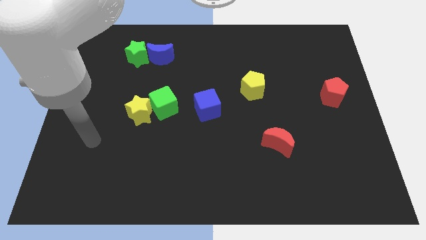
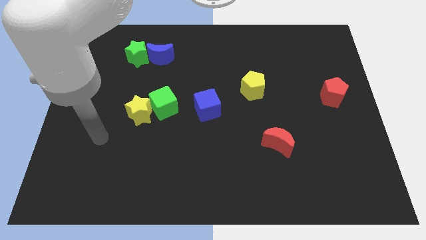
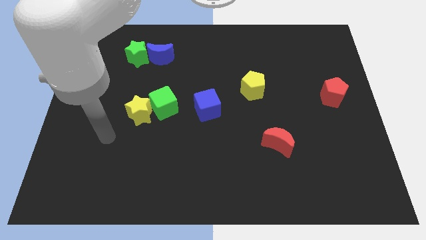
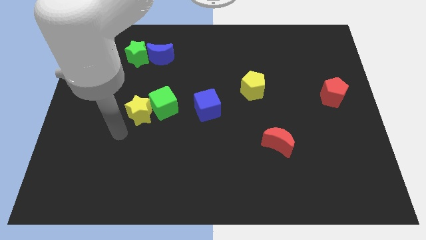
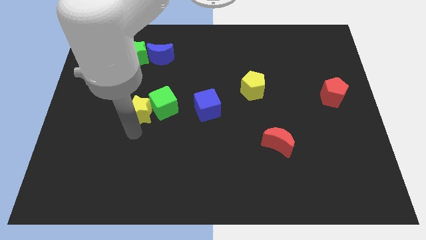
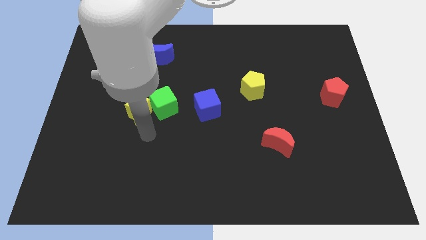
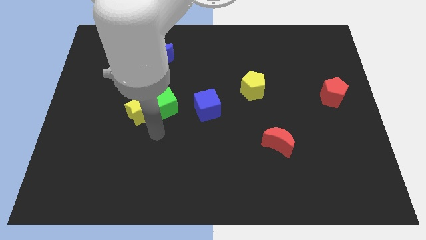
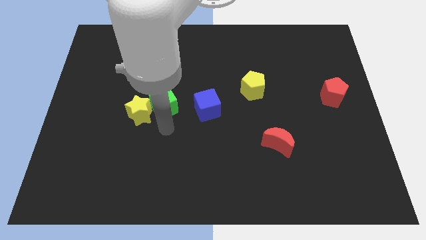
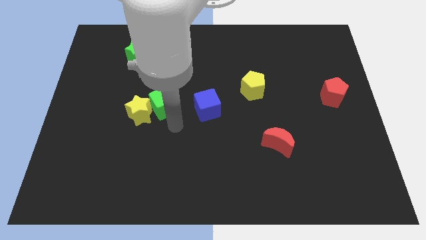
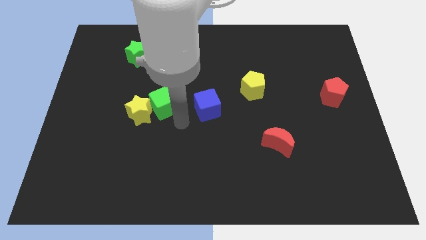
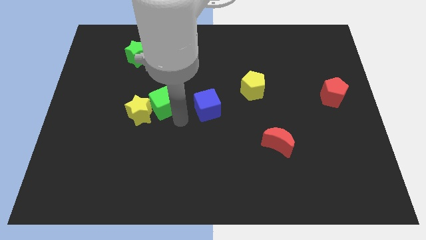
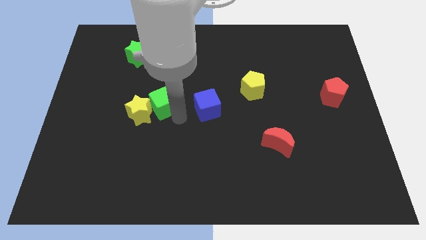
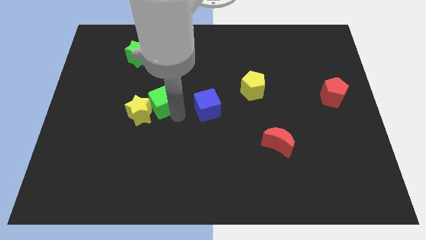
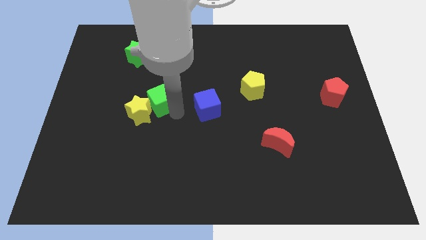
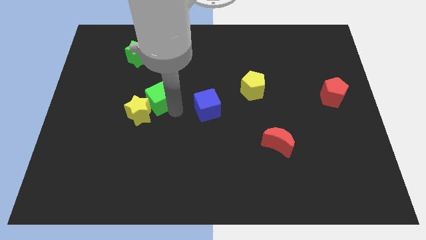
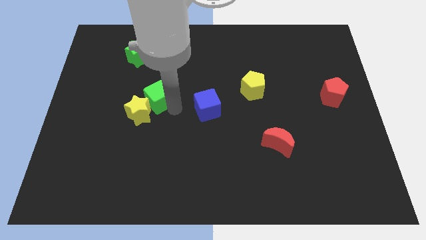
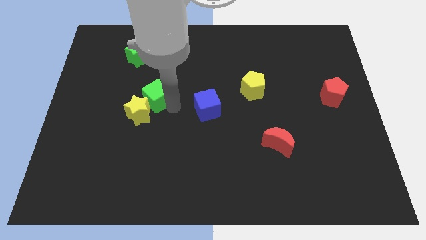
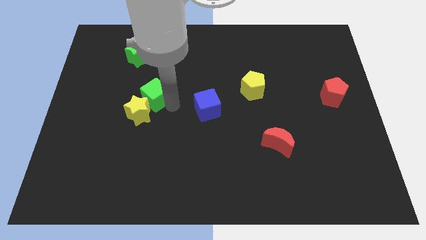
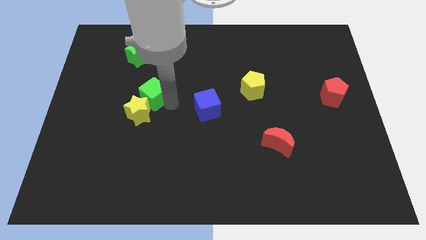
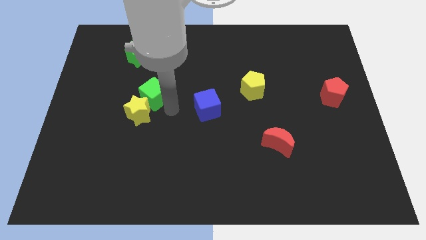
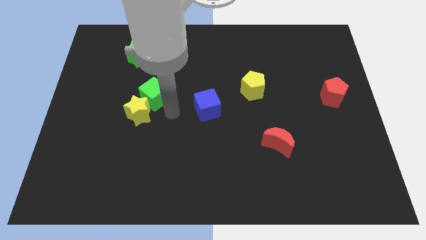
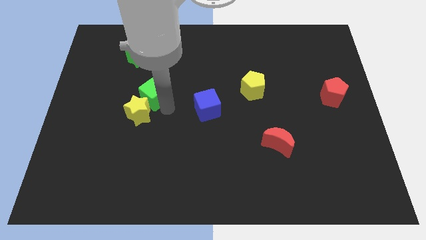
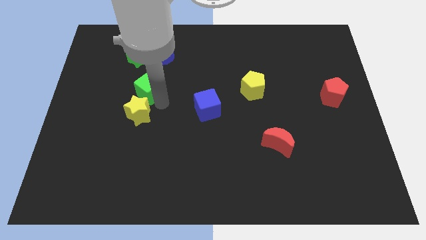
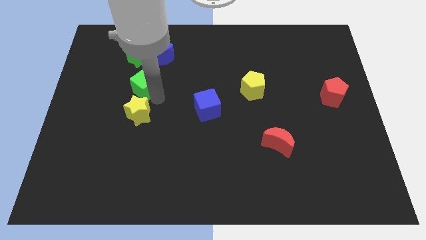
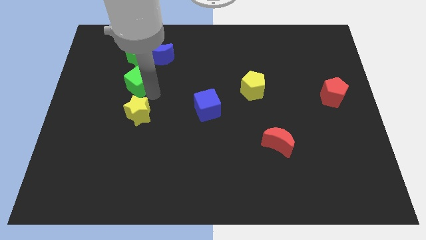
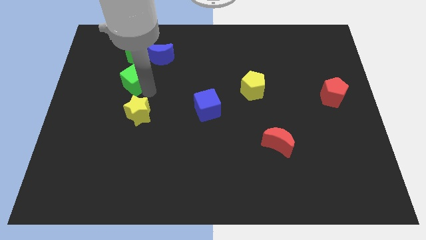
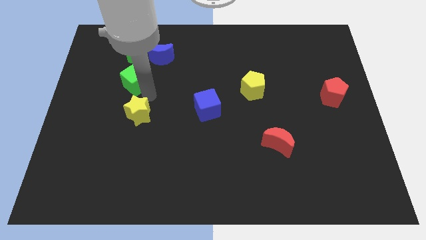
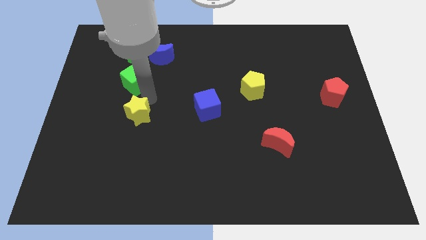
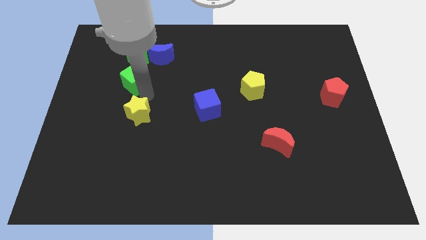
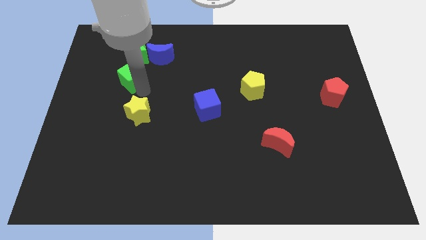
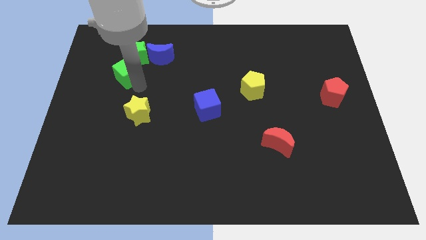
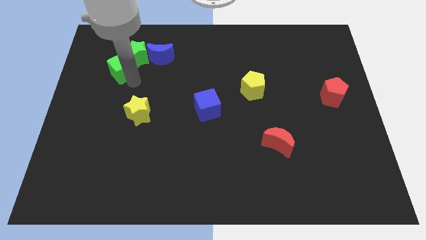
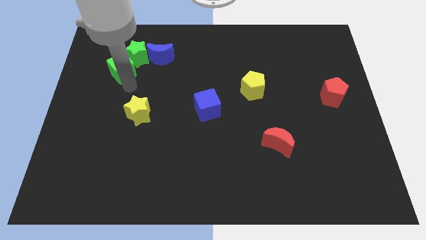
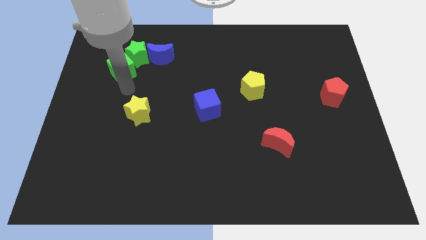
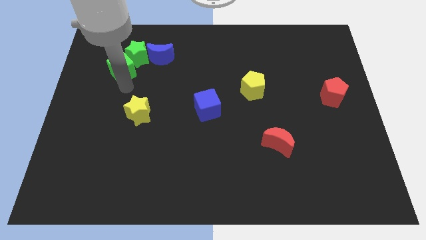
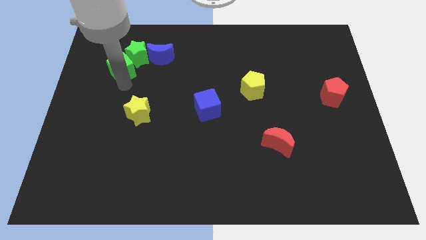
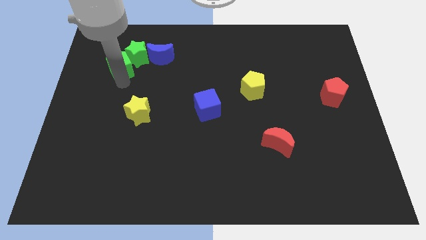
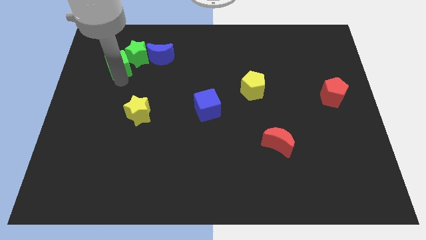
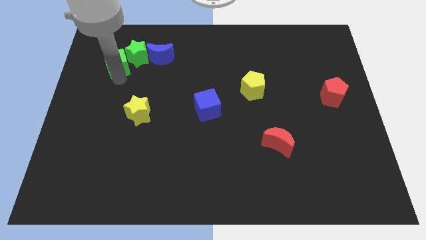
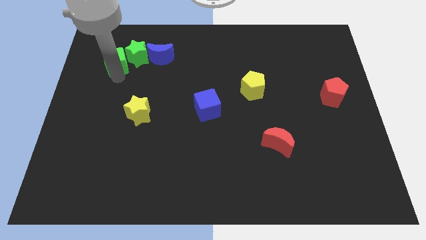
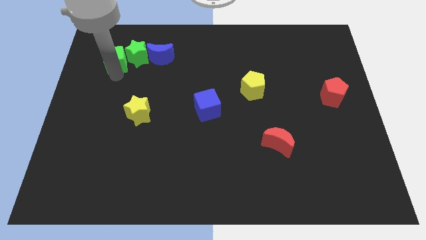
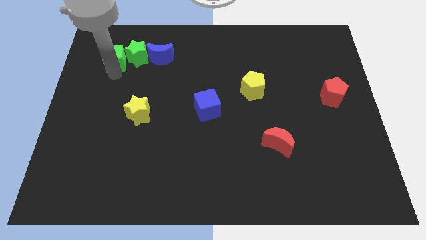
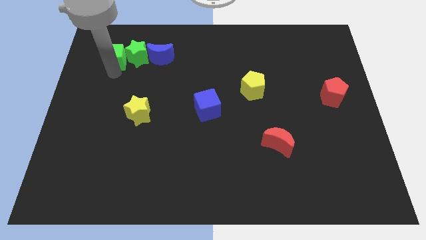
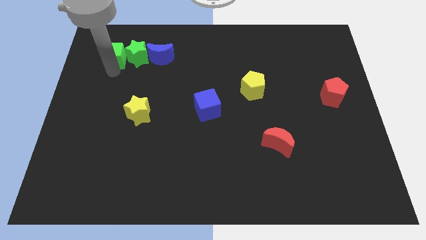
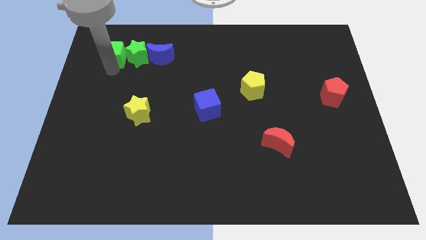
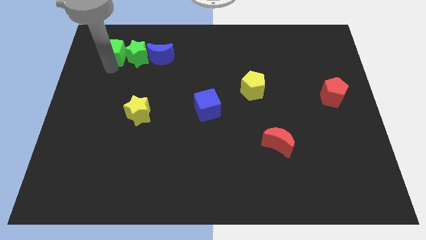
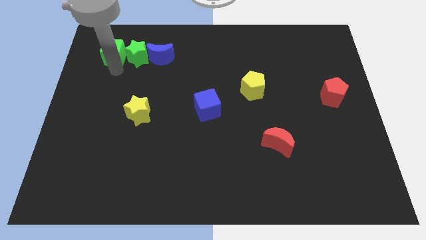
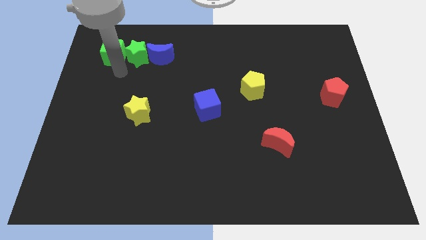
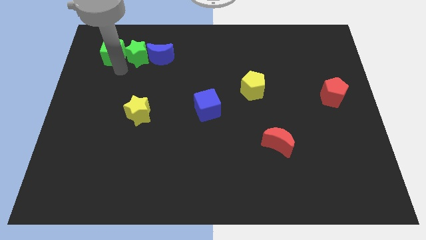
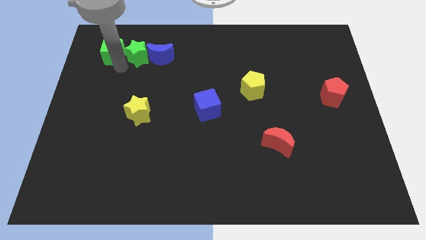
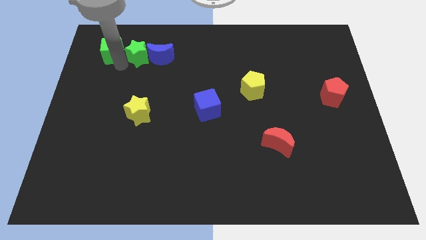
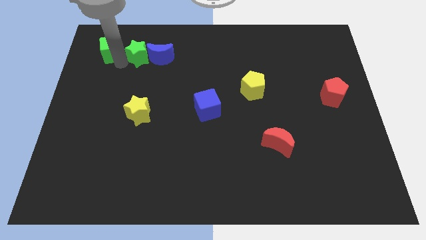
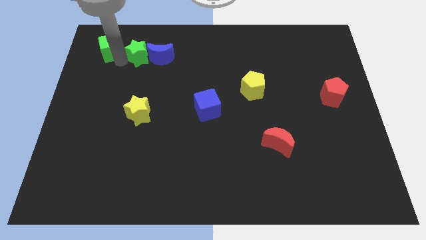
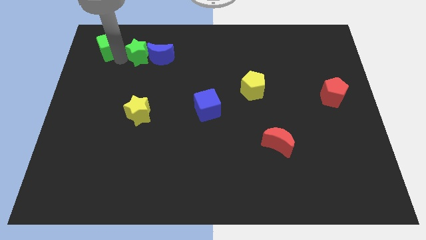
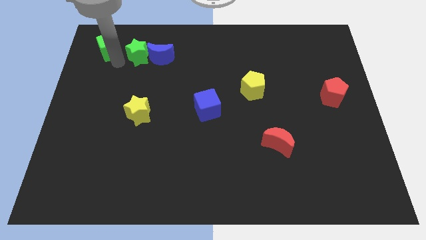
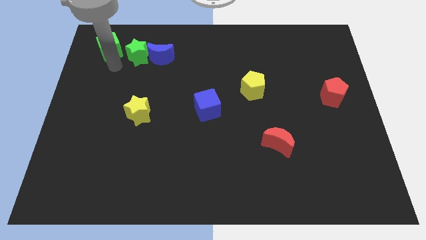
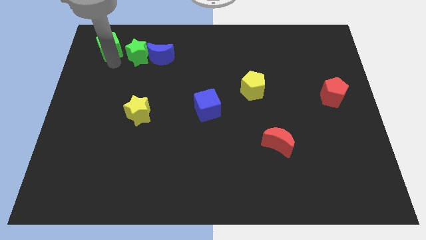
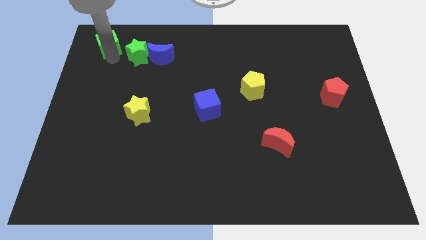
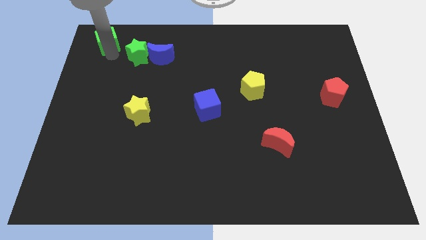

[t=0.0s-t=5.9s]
slide the green cube to the top left

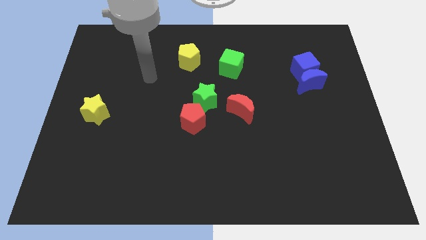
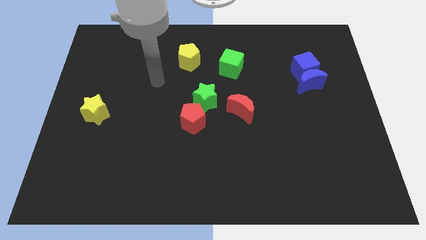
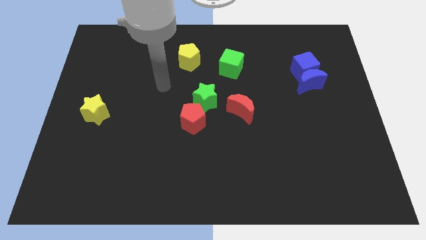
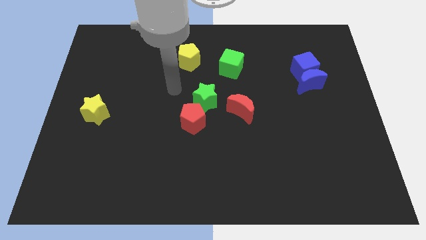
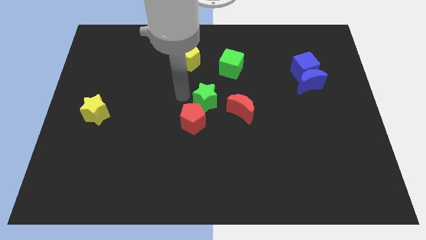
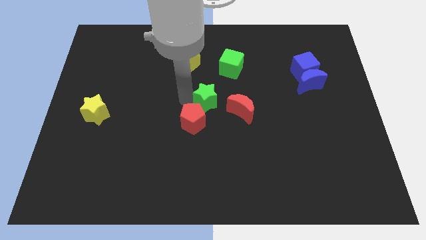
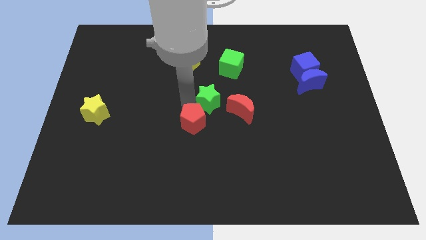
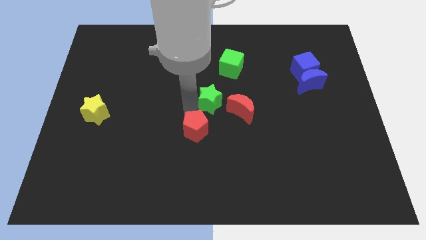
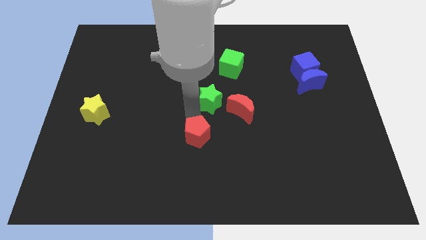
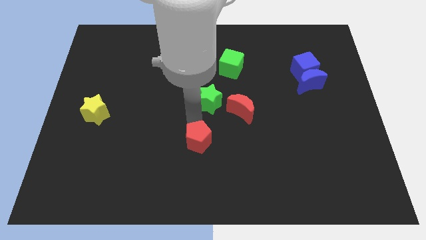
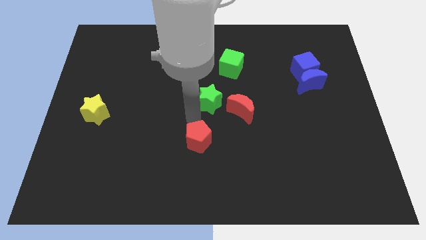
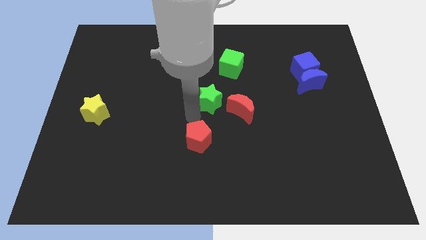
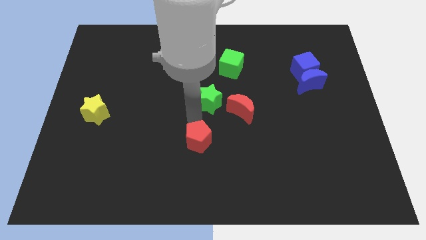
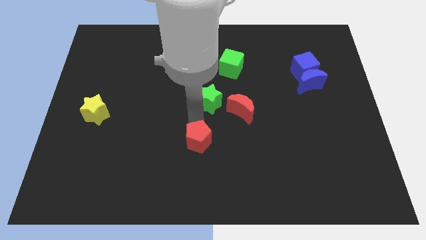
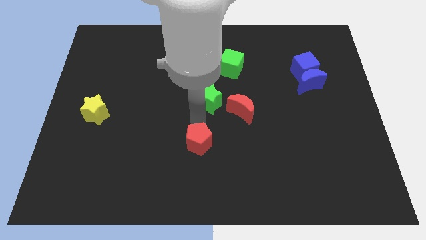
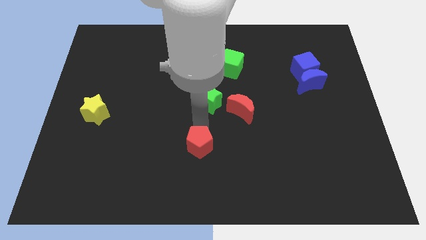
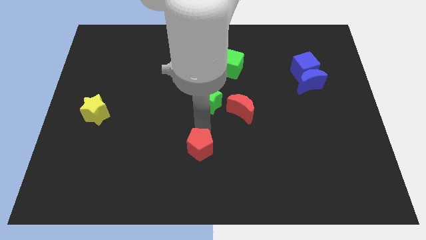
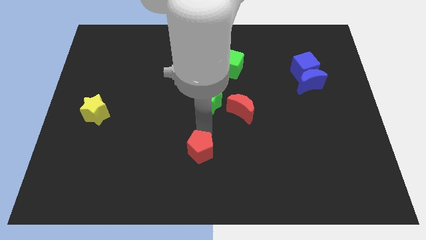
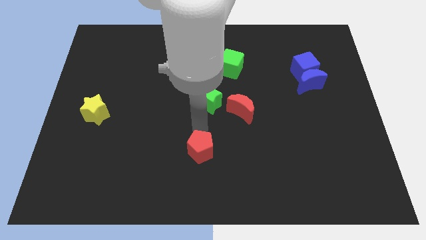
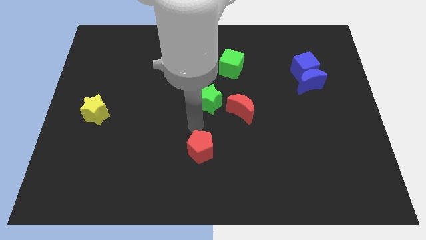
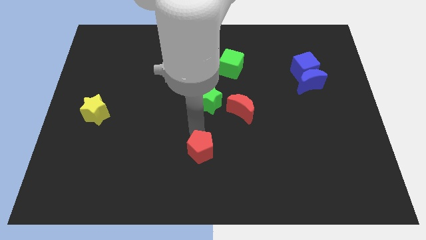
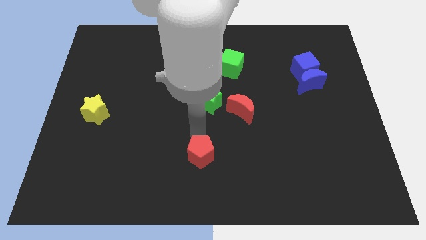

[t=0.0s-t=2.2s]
put the red pentagon to the bottom side
